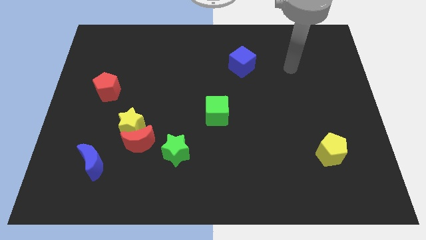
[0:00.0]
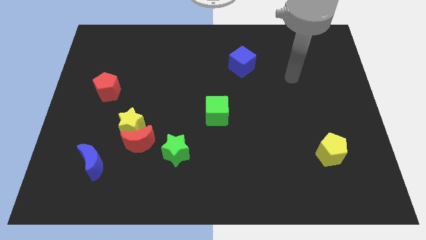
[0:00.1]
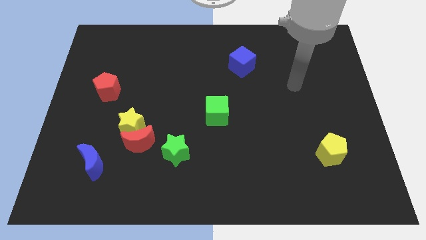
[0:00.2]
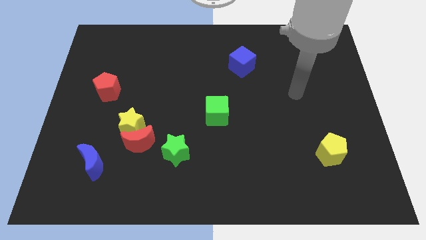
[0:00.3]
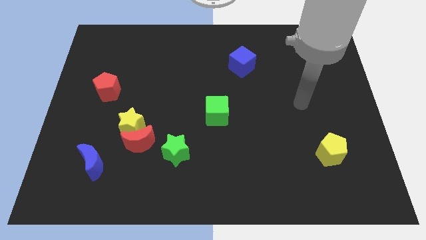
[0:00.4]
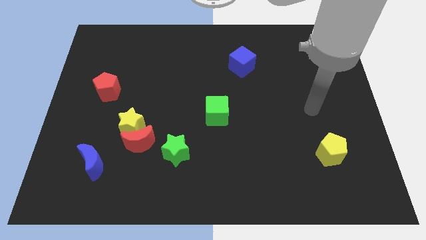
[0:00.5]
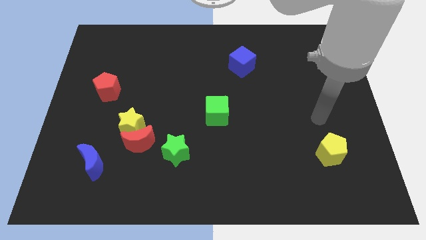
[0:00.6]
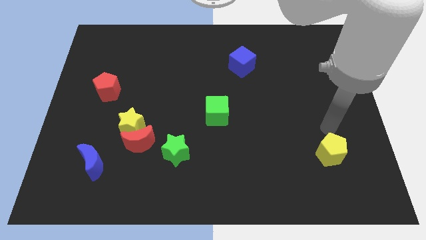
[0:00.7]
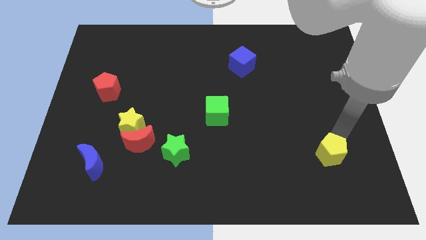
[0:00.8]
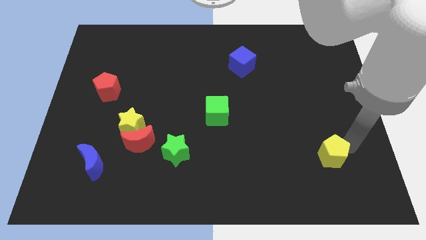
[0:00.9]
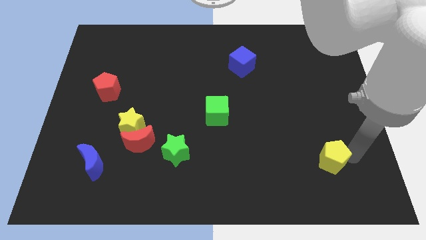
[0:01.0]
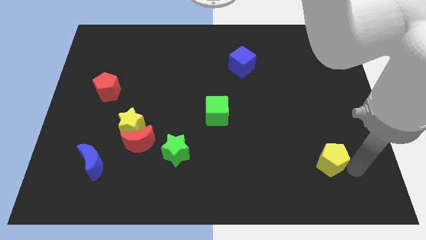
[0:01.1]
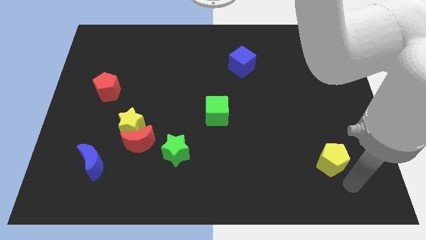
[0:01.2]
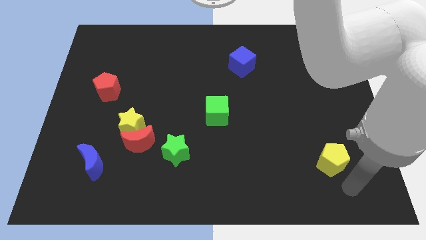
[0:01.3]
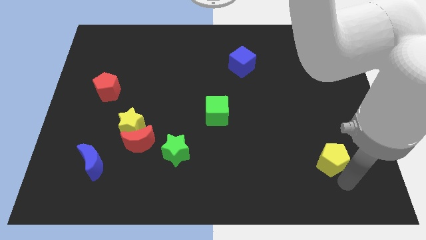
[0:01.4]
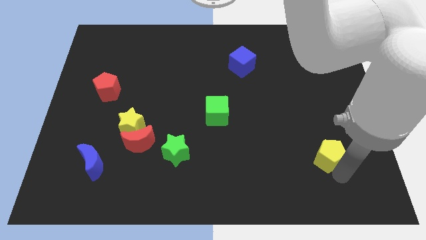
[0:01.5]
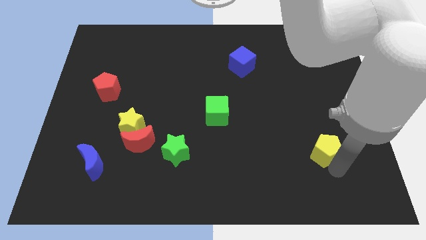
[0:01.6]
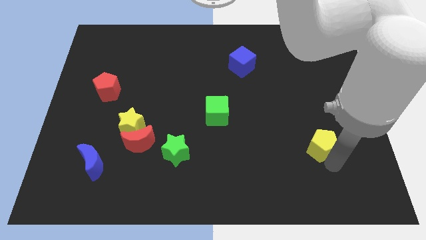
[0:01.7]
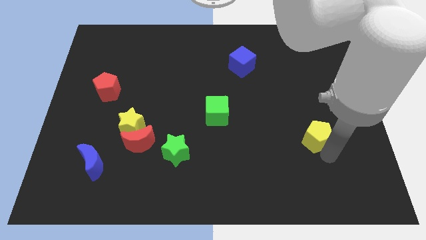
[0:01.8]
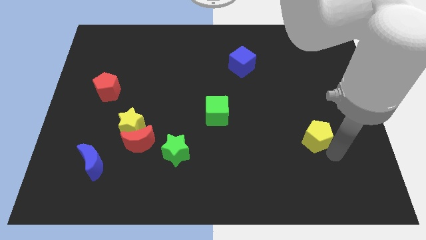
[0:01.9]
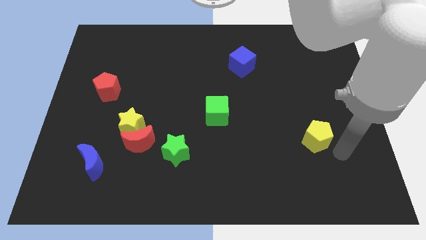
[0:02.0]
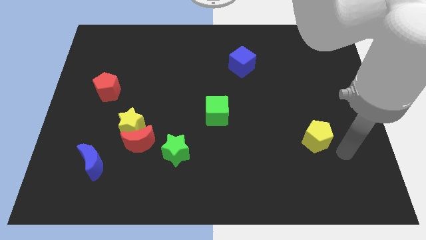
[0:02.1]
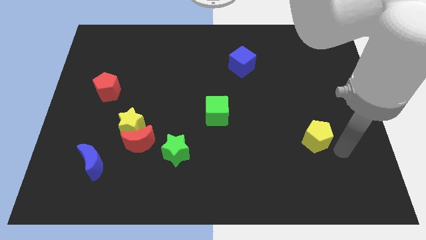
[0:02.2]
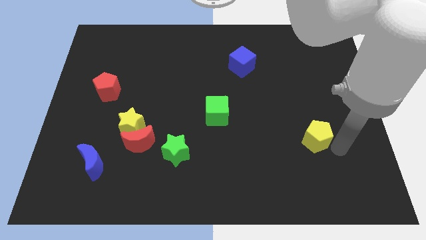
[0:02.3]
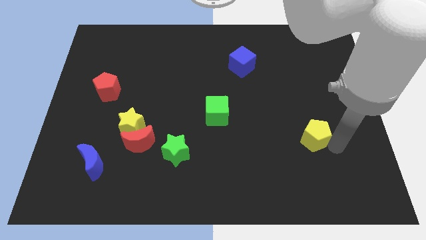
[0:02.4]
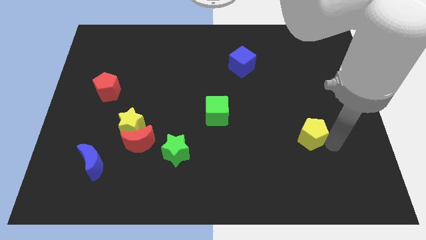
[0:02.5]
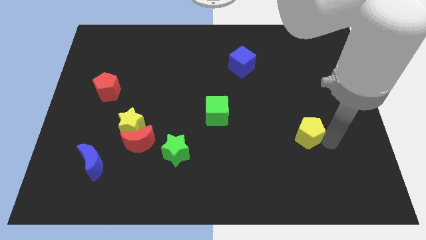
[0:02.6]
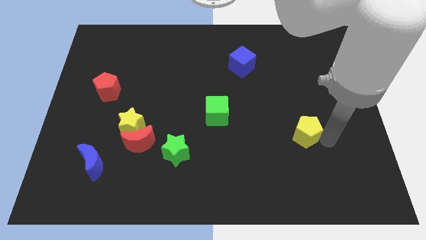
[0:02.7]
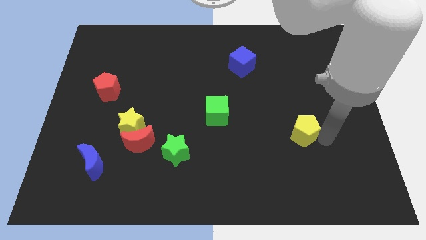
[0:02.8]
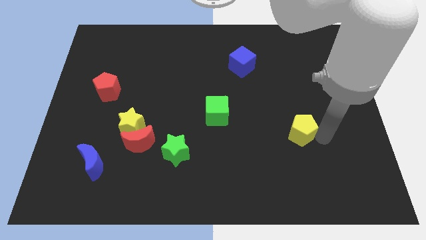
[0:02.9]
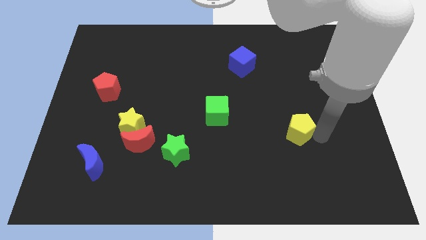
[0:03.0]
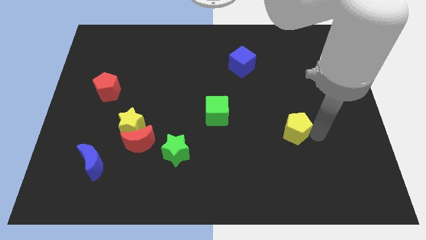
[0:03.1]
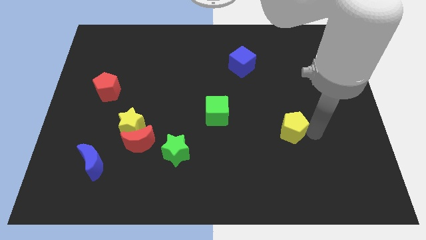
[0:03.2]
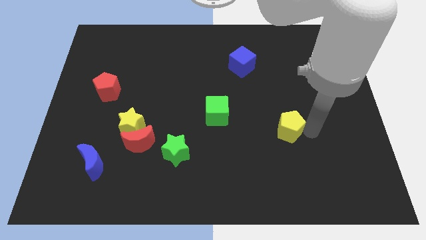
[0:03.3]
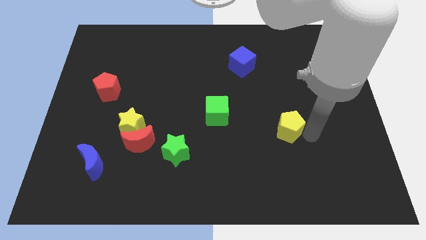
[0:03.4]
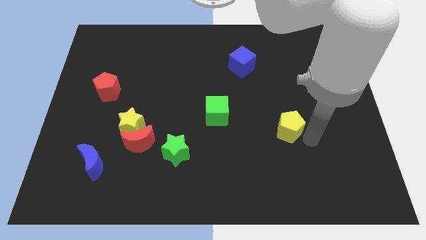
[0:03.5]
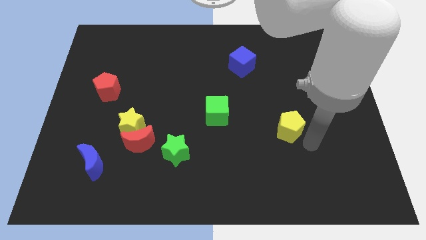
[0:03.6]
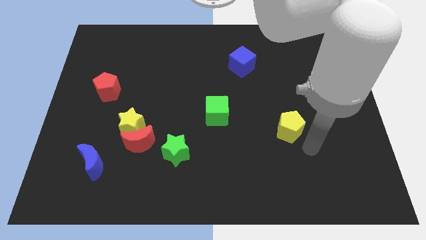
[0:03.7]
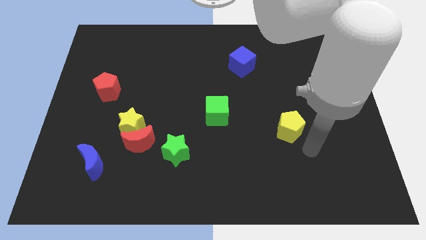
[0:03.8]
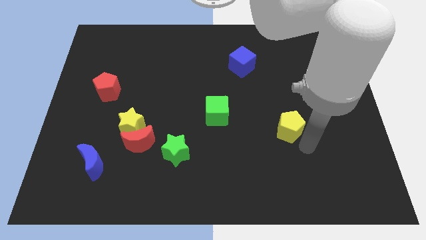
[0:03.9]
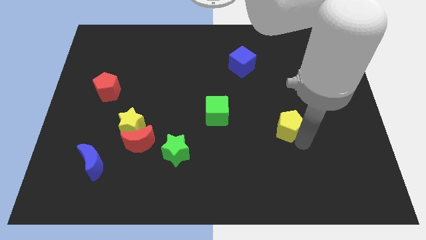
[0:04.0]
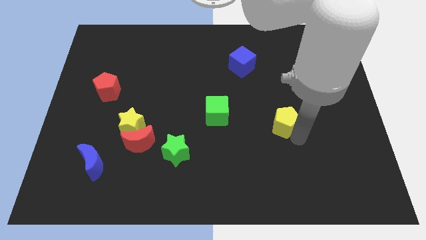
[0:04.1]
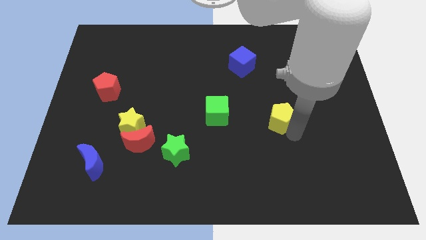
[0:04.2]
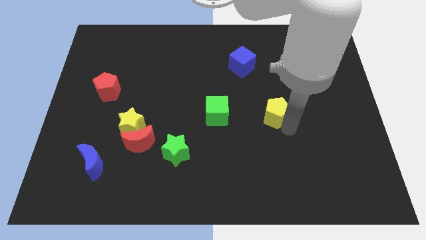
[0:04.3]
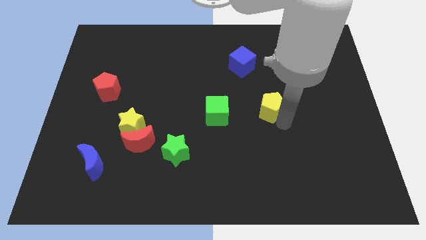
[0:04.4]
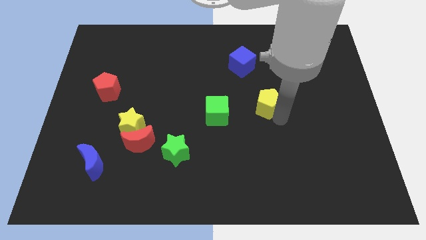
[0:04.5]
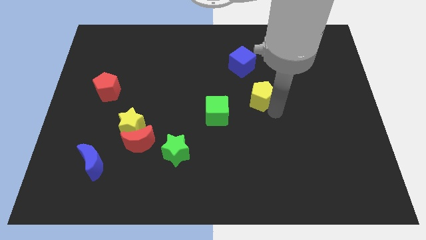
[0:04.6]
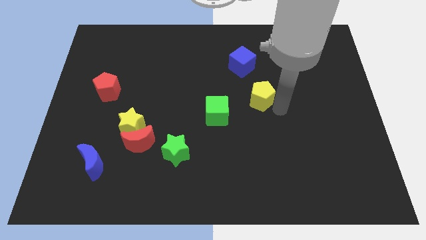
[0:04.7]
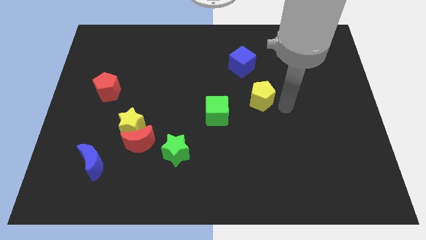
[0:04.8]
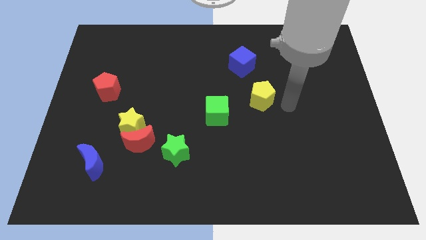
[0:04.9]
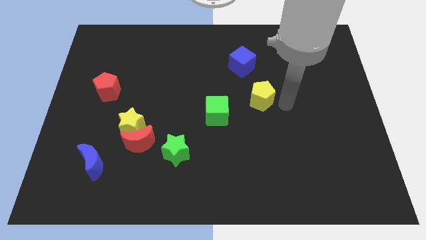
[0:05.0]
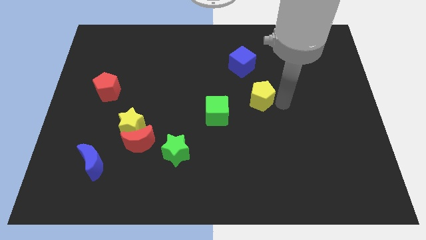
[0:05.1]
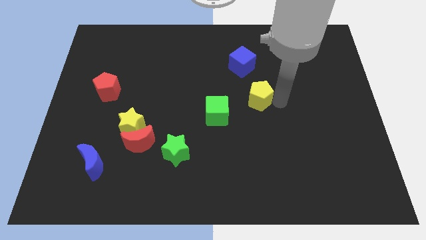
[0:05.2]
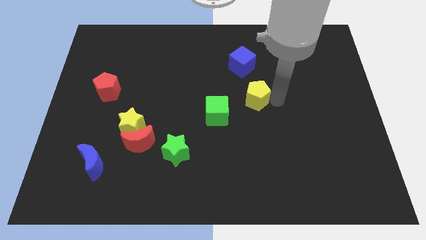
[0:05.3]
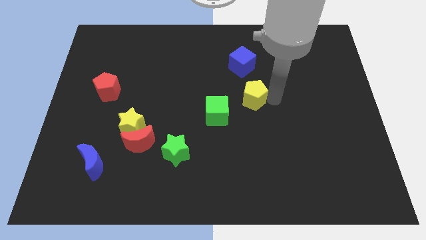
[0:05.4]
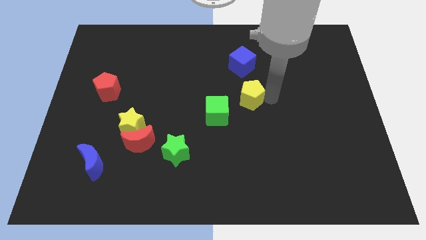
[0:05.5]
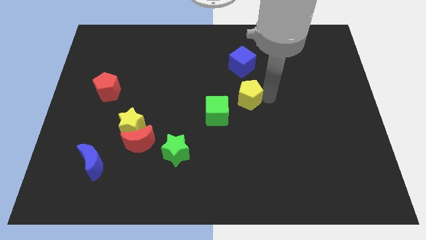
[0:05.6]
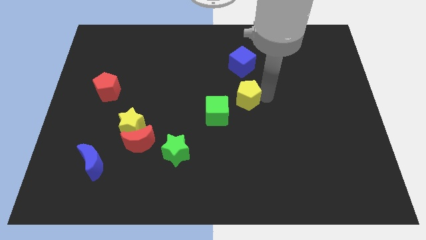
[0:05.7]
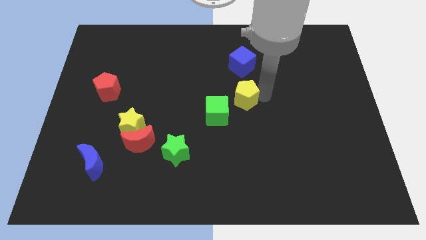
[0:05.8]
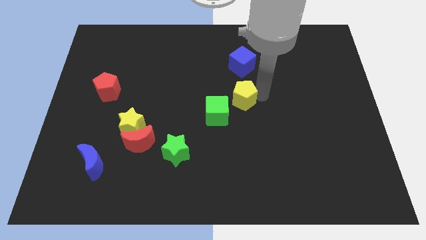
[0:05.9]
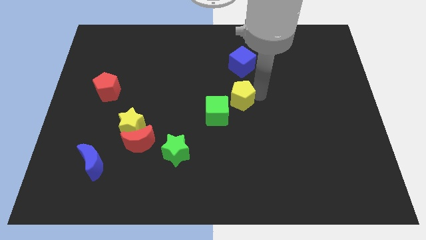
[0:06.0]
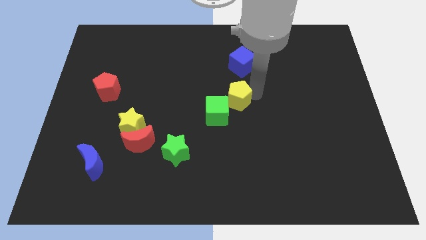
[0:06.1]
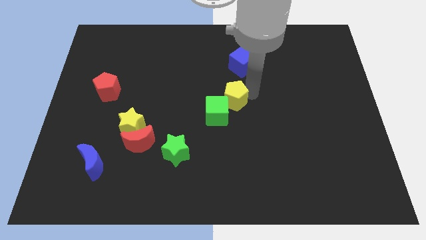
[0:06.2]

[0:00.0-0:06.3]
move the yellow pentagon to the top side of the green cube

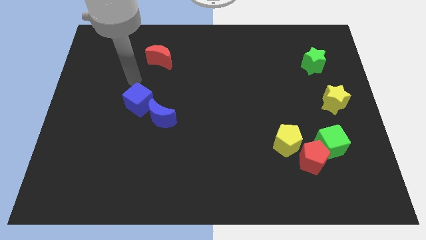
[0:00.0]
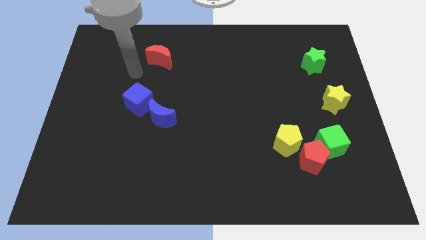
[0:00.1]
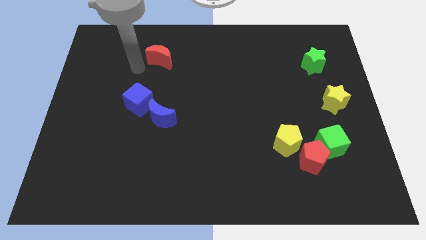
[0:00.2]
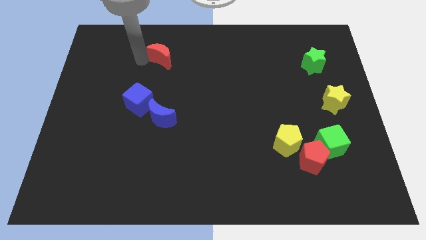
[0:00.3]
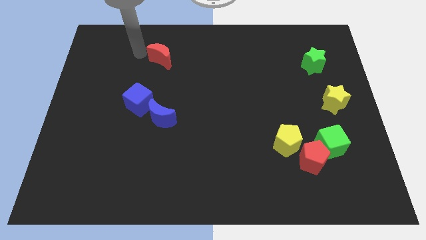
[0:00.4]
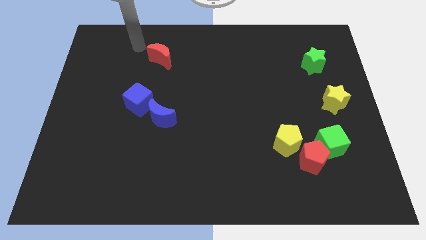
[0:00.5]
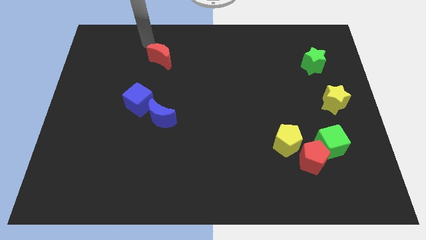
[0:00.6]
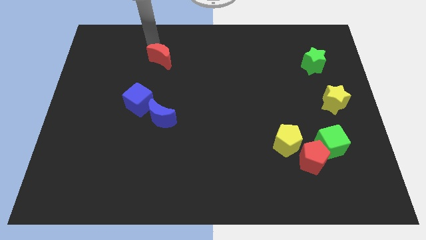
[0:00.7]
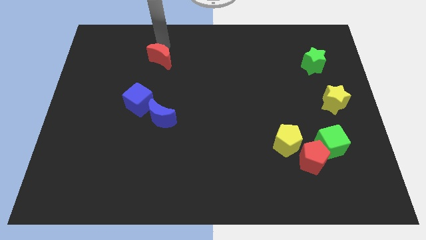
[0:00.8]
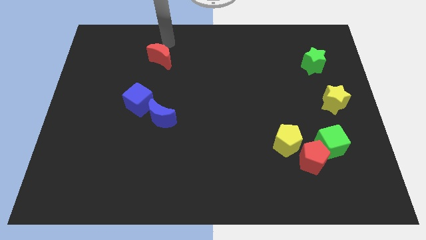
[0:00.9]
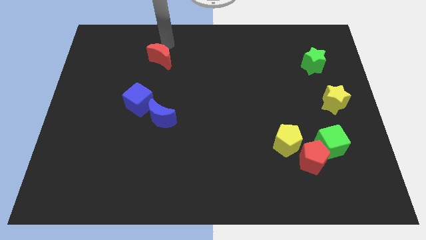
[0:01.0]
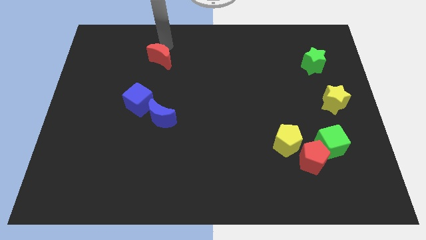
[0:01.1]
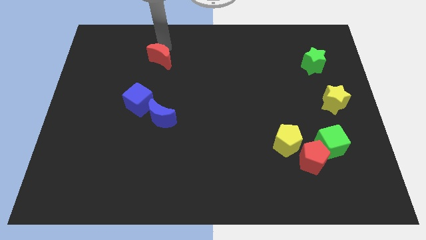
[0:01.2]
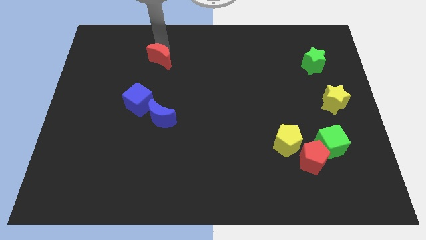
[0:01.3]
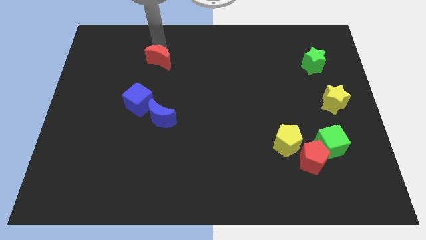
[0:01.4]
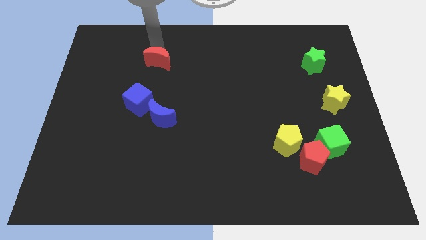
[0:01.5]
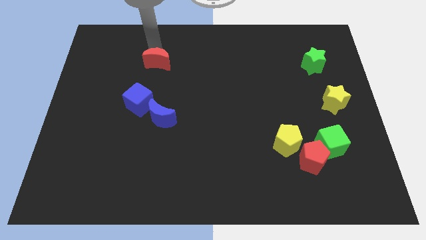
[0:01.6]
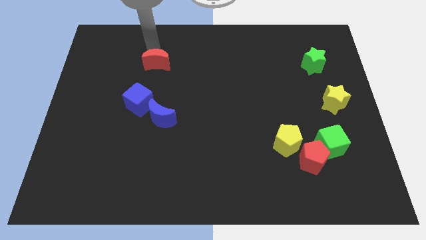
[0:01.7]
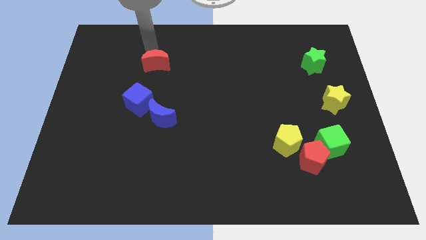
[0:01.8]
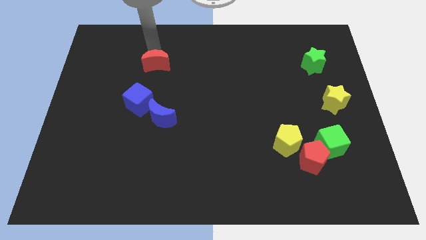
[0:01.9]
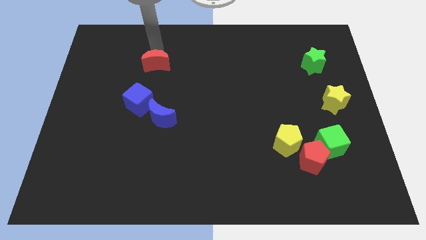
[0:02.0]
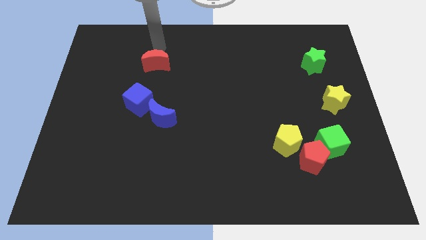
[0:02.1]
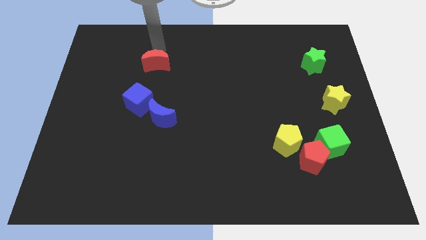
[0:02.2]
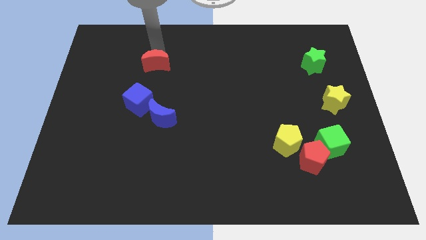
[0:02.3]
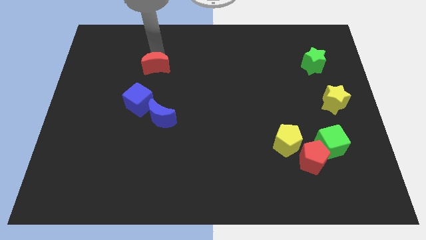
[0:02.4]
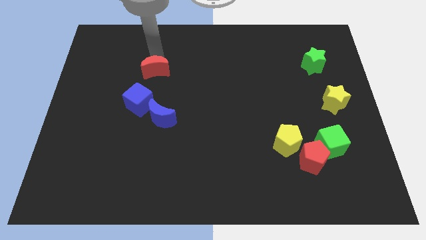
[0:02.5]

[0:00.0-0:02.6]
put the red moon to the top of the blue moon
